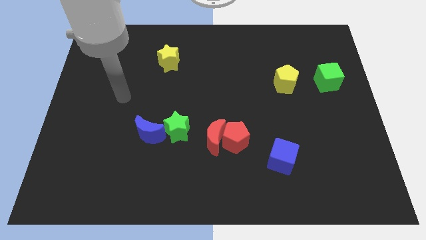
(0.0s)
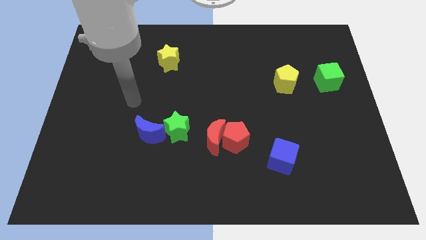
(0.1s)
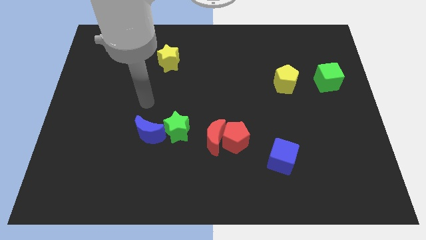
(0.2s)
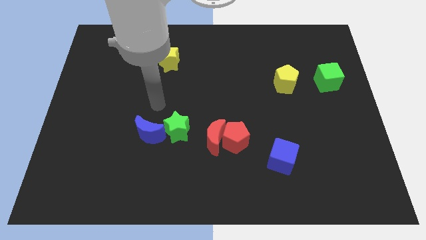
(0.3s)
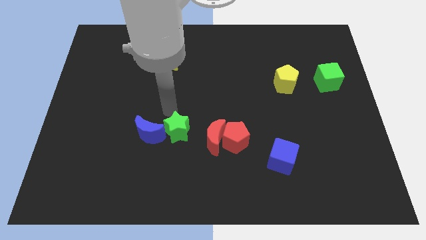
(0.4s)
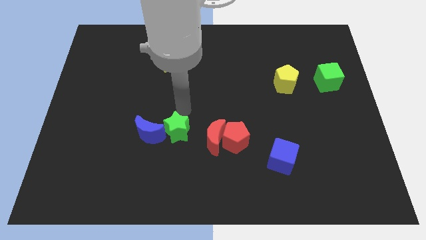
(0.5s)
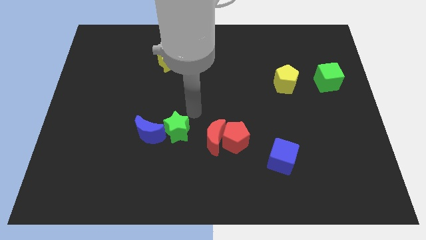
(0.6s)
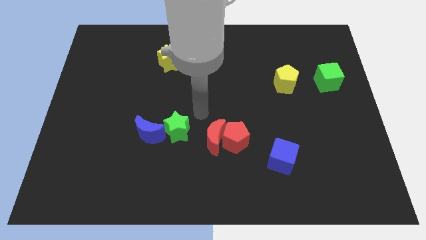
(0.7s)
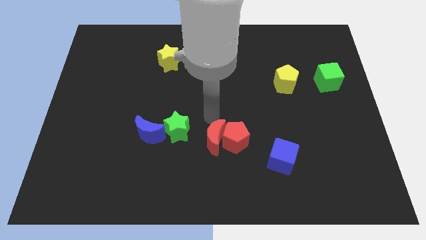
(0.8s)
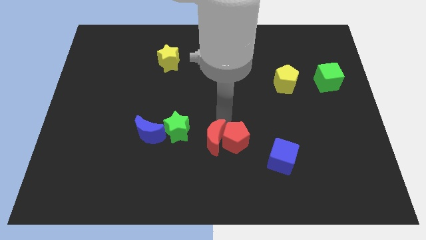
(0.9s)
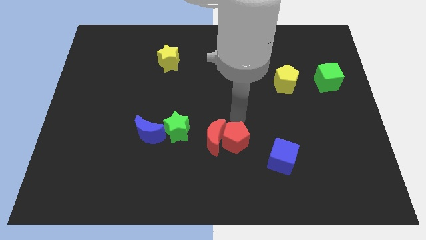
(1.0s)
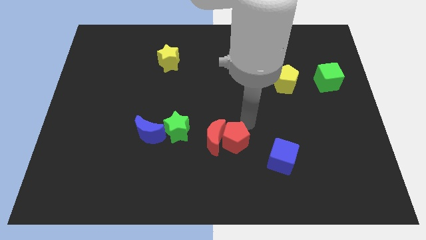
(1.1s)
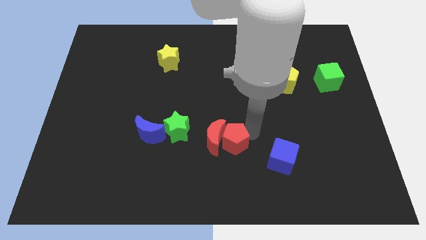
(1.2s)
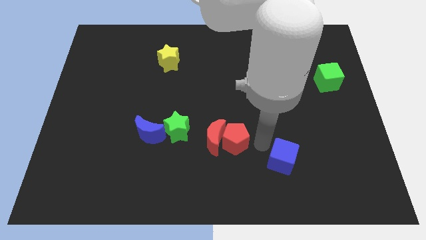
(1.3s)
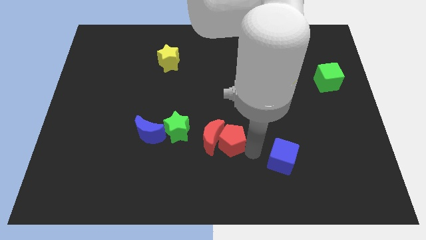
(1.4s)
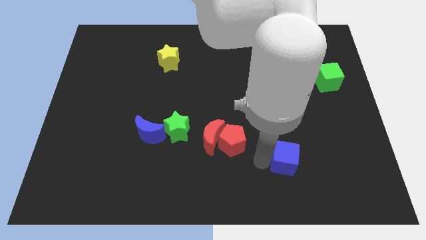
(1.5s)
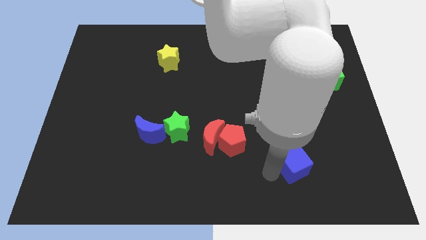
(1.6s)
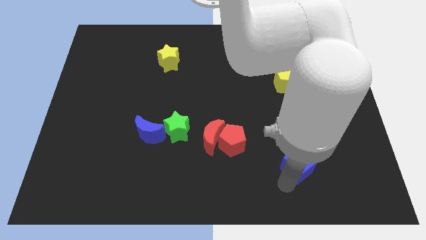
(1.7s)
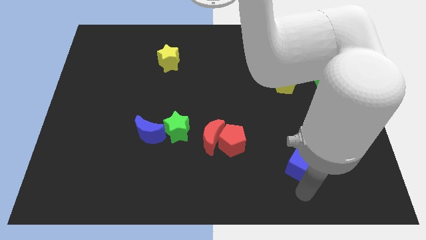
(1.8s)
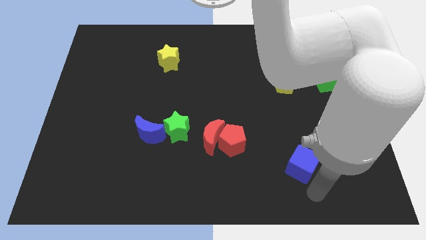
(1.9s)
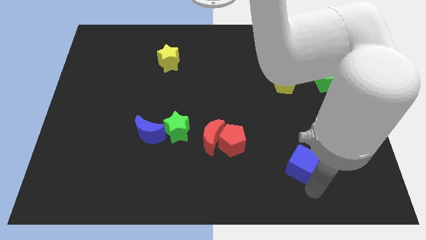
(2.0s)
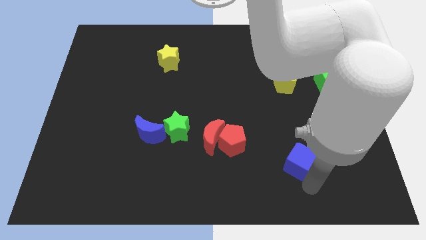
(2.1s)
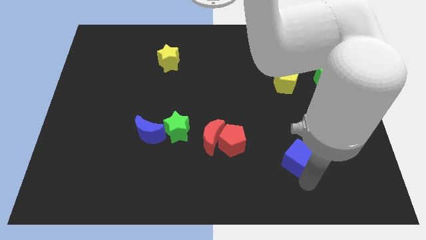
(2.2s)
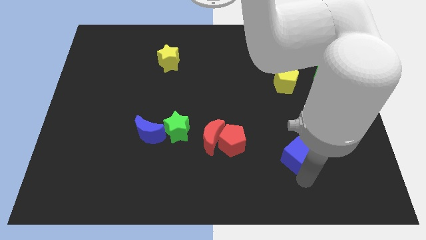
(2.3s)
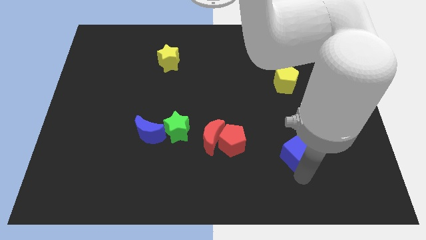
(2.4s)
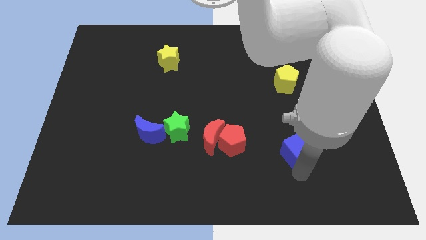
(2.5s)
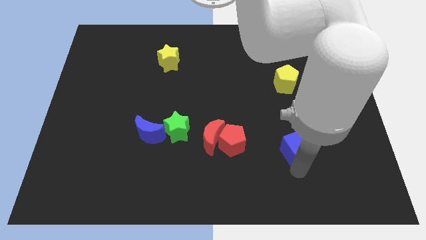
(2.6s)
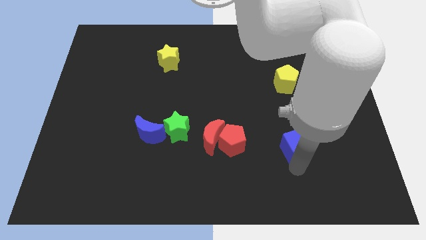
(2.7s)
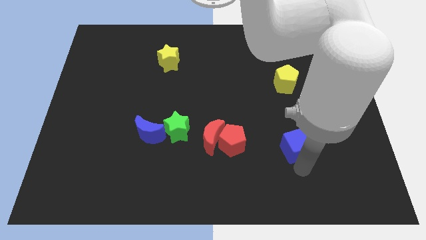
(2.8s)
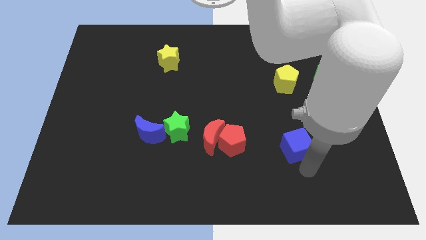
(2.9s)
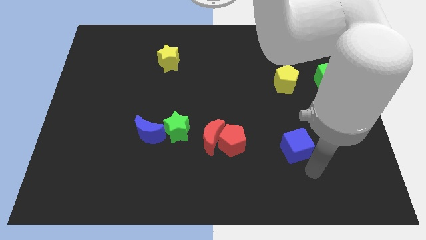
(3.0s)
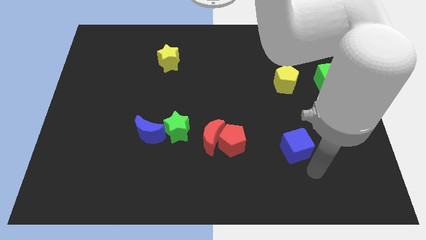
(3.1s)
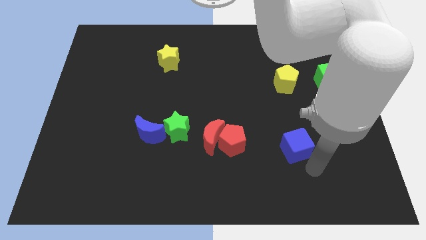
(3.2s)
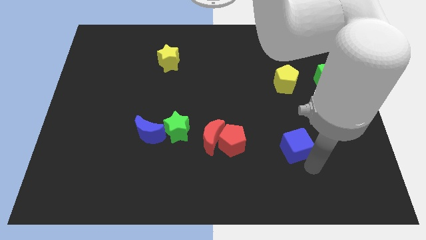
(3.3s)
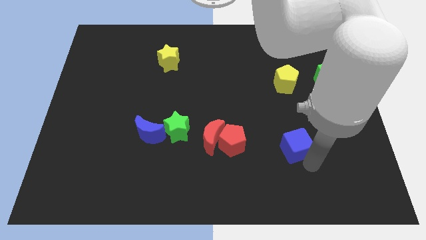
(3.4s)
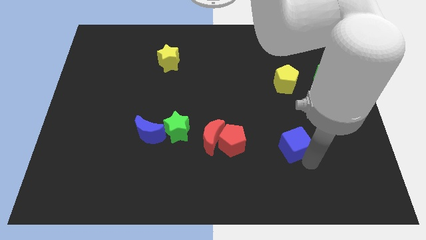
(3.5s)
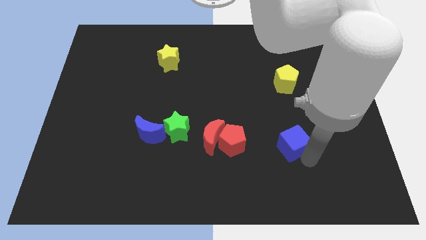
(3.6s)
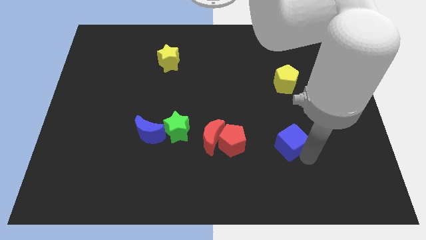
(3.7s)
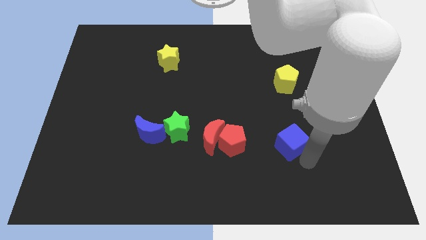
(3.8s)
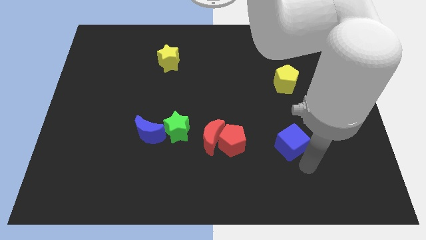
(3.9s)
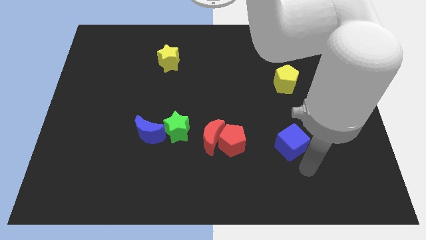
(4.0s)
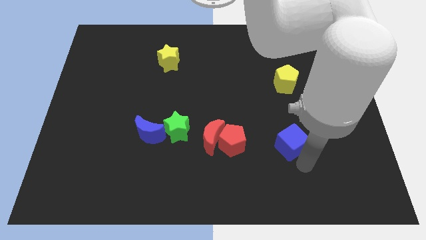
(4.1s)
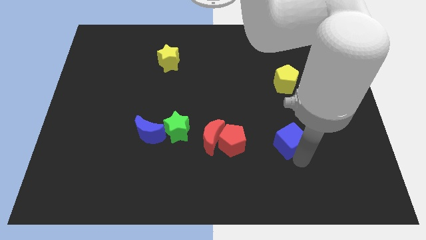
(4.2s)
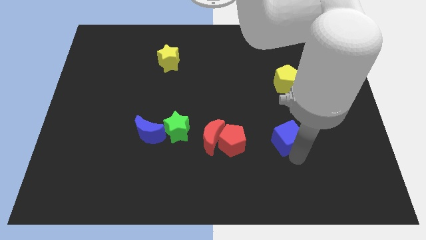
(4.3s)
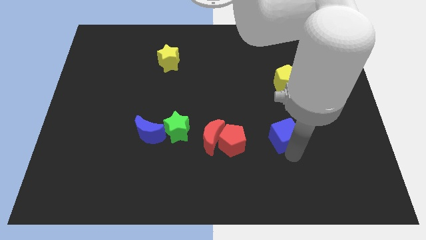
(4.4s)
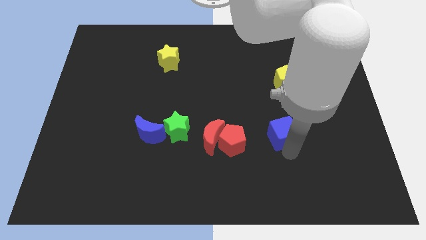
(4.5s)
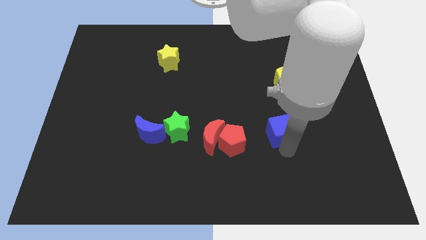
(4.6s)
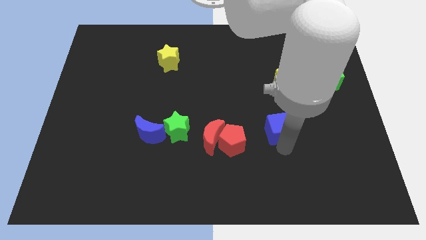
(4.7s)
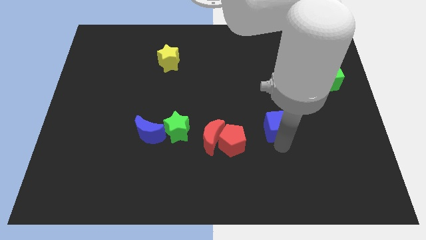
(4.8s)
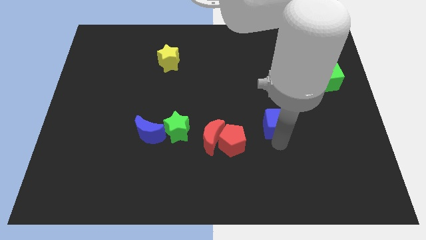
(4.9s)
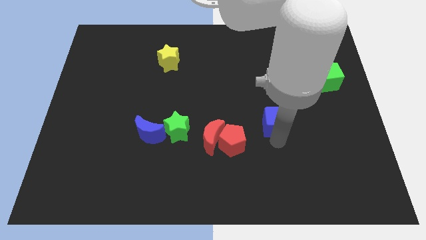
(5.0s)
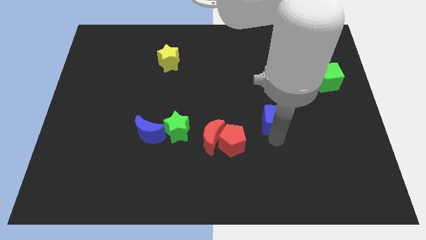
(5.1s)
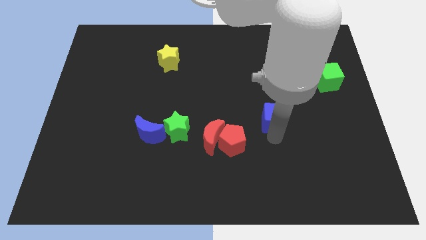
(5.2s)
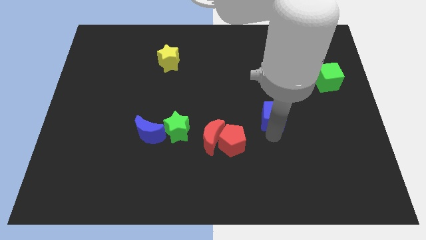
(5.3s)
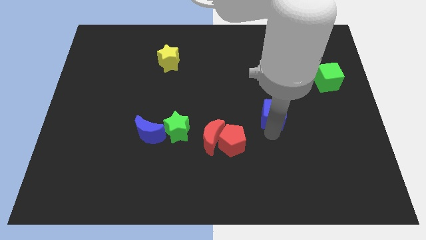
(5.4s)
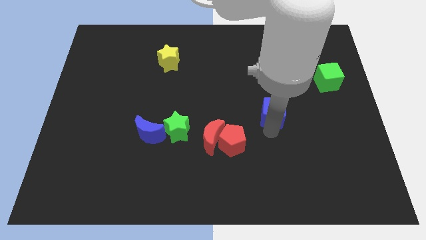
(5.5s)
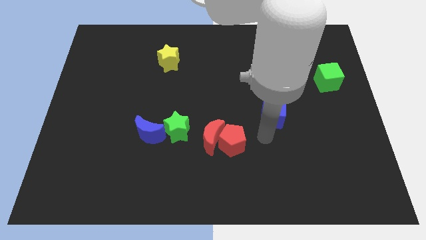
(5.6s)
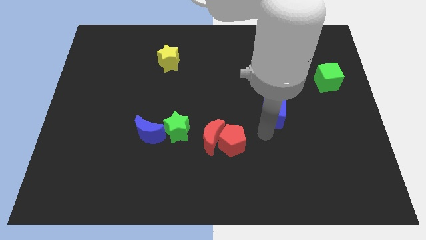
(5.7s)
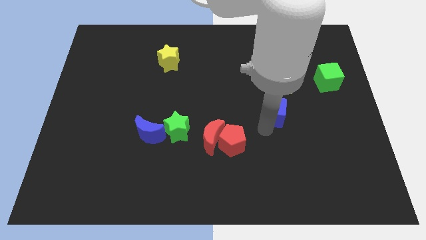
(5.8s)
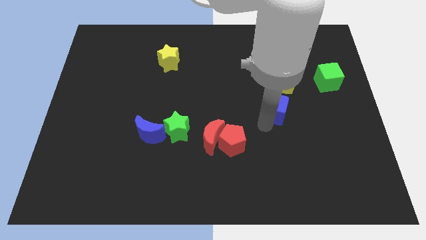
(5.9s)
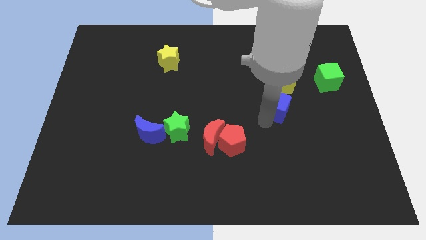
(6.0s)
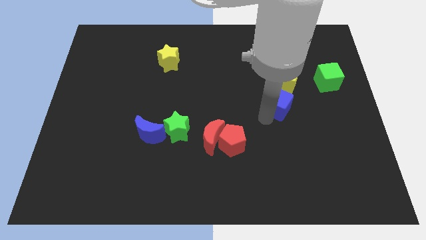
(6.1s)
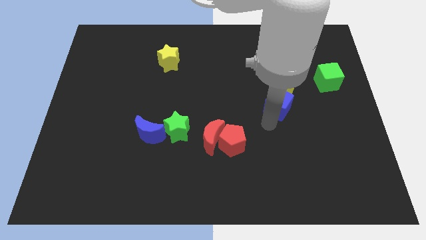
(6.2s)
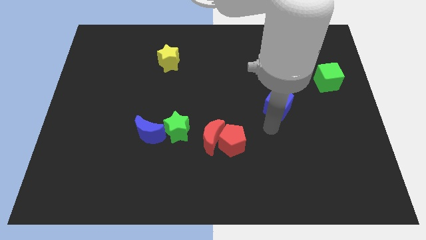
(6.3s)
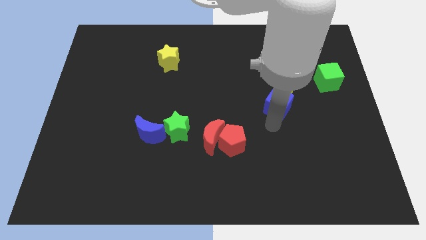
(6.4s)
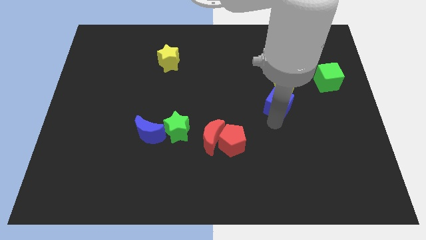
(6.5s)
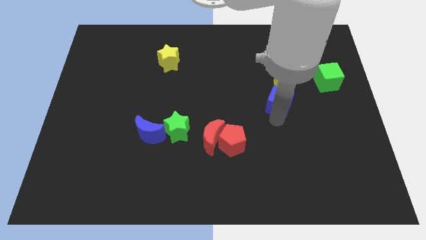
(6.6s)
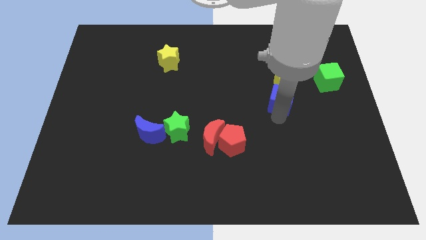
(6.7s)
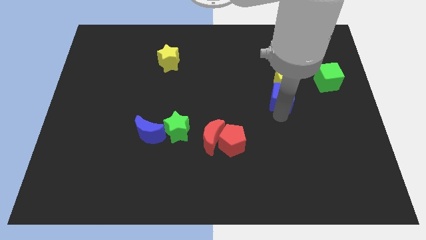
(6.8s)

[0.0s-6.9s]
push the blue cube towards the yellow pentagon
